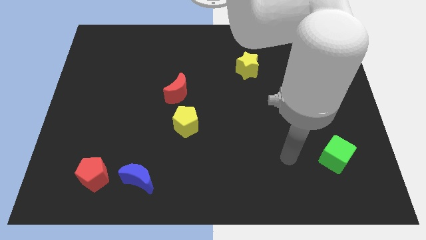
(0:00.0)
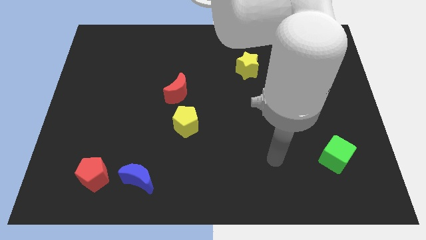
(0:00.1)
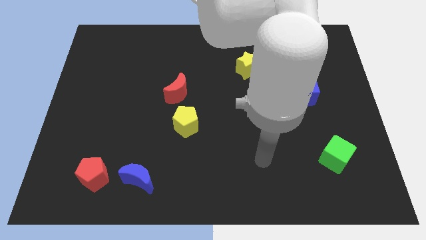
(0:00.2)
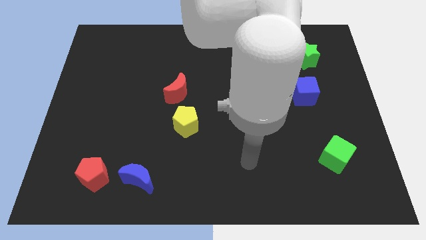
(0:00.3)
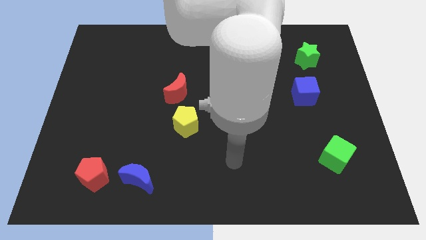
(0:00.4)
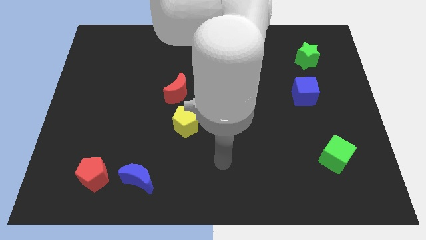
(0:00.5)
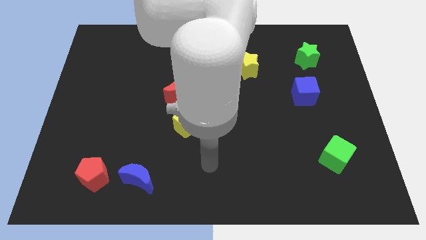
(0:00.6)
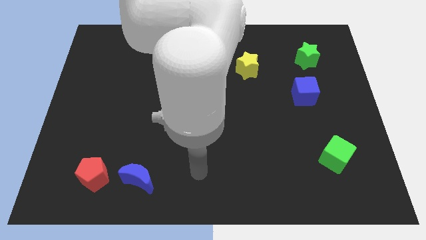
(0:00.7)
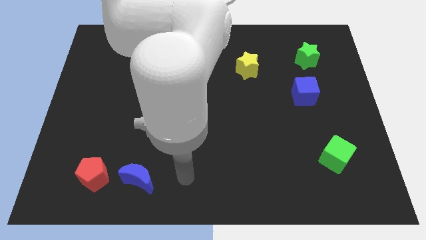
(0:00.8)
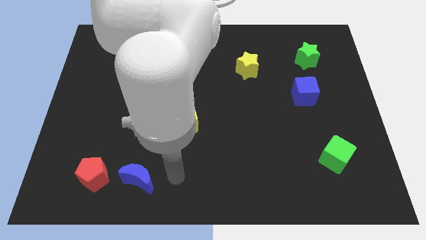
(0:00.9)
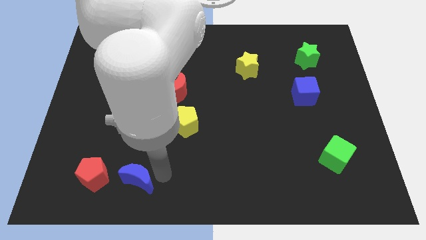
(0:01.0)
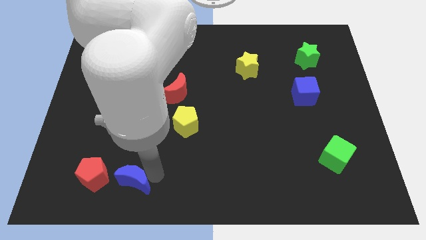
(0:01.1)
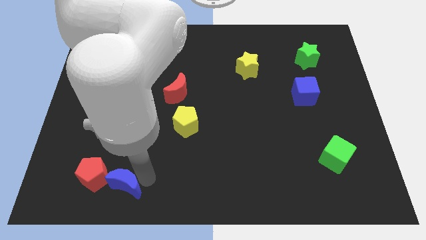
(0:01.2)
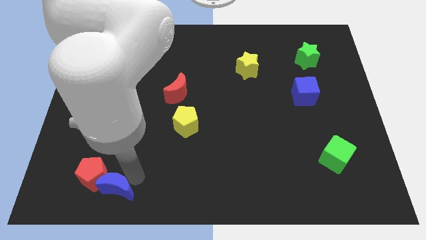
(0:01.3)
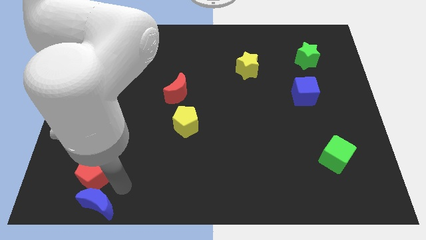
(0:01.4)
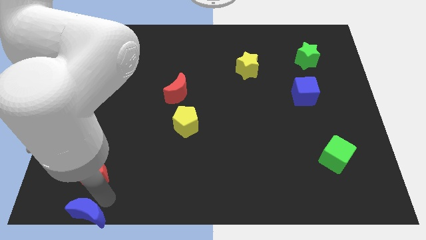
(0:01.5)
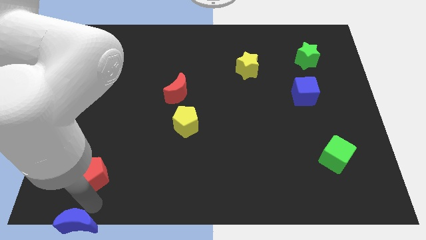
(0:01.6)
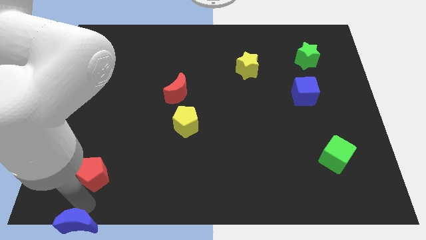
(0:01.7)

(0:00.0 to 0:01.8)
pull the red pentagon apart from the blue moon

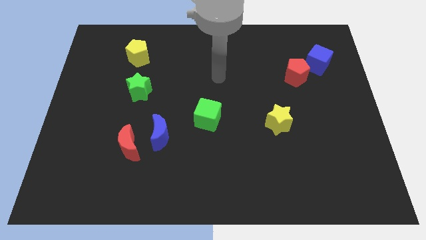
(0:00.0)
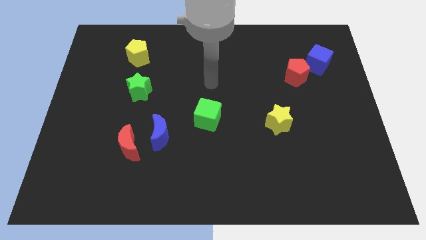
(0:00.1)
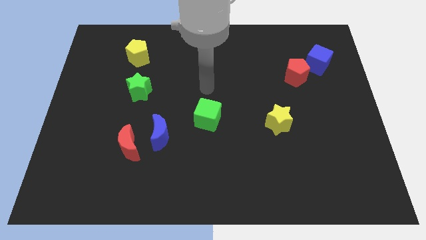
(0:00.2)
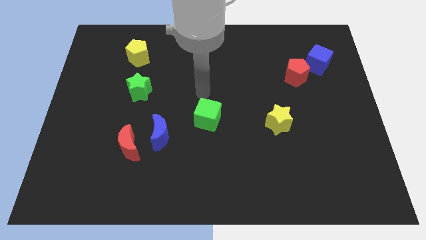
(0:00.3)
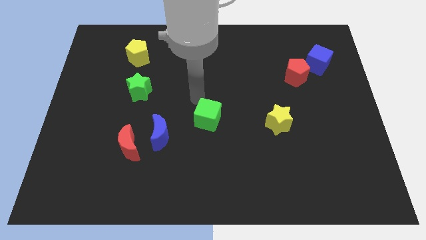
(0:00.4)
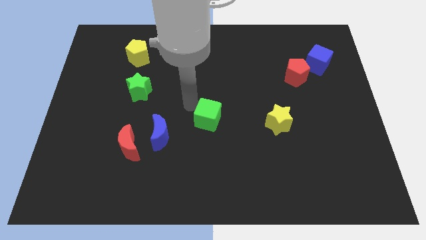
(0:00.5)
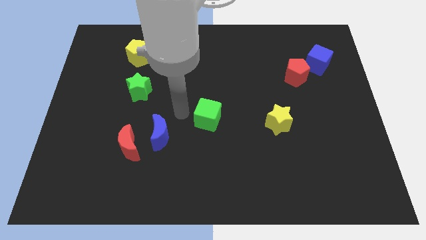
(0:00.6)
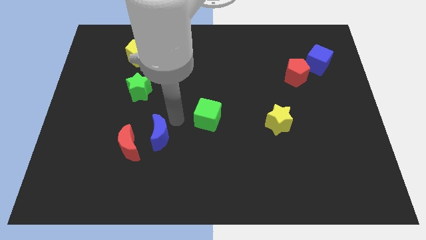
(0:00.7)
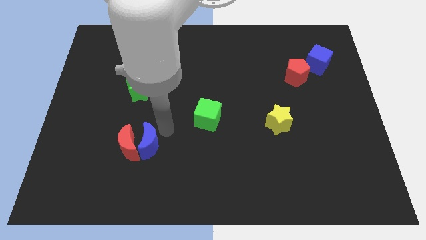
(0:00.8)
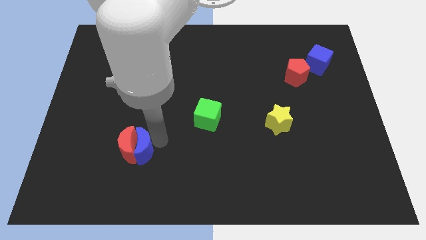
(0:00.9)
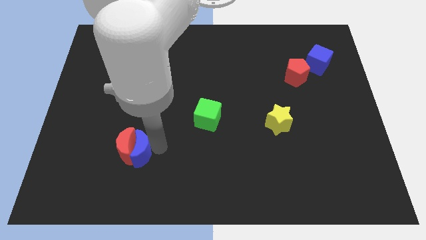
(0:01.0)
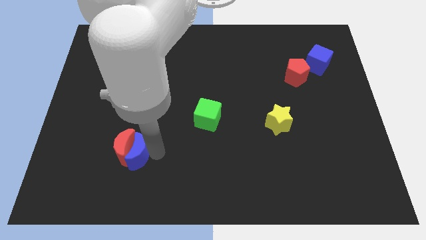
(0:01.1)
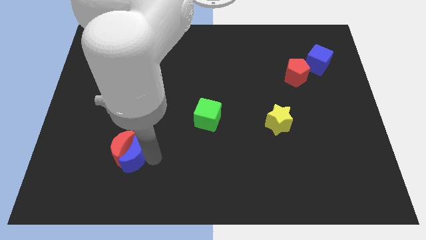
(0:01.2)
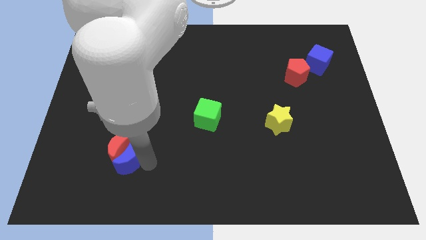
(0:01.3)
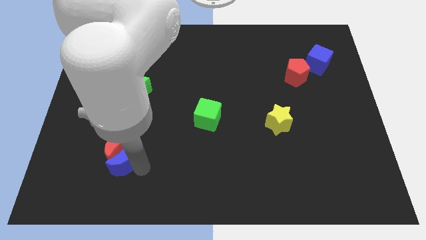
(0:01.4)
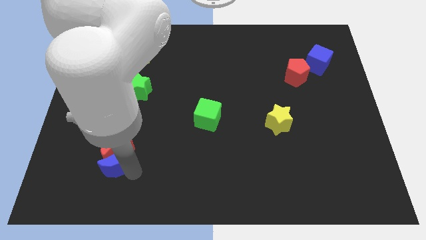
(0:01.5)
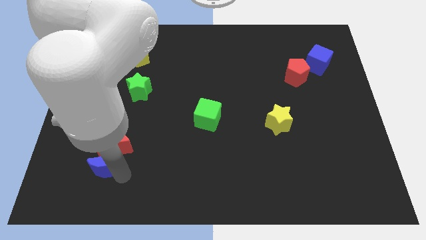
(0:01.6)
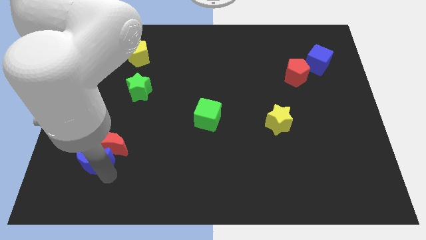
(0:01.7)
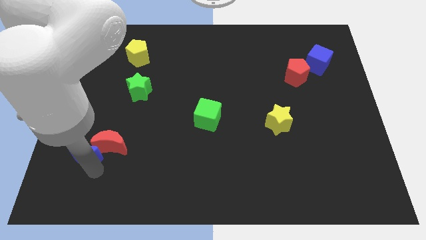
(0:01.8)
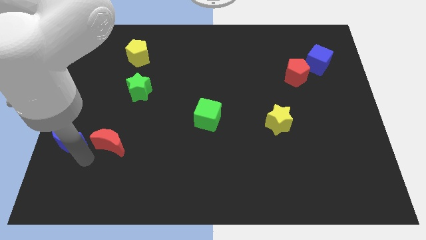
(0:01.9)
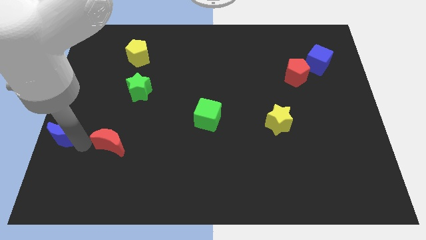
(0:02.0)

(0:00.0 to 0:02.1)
separate the red moon from the blue moon

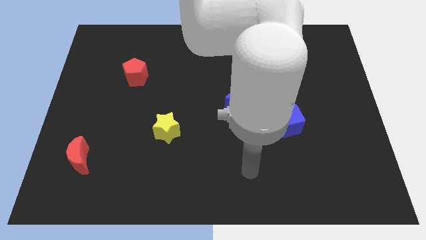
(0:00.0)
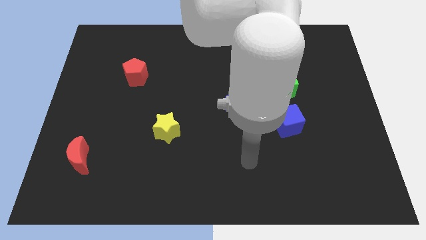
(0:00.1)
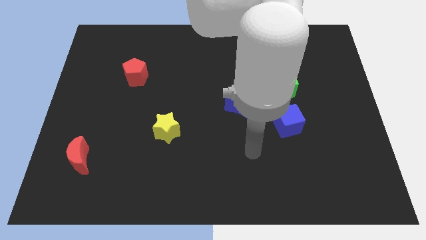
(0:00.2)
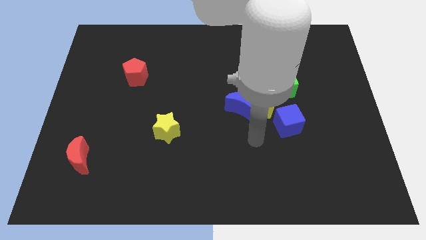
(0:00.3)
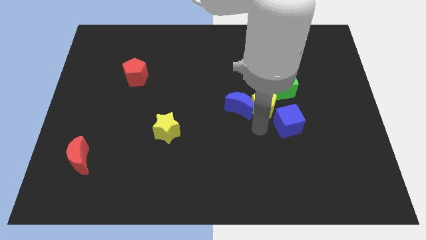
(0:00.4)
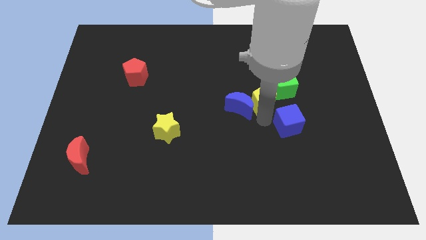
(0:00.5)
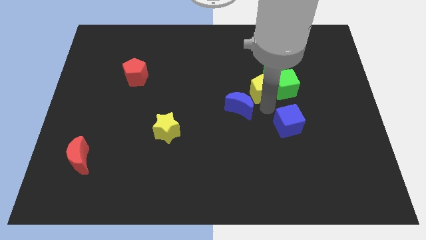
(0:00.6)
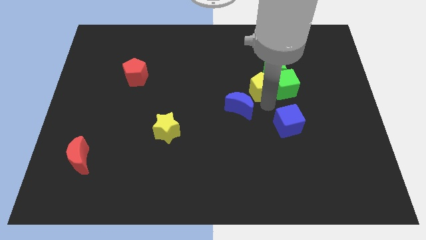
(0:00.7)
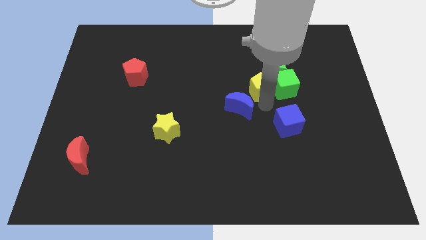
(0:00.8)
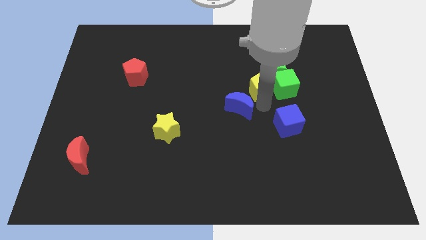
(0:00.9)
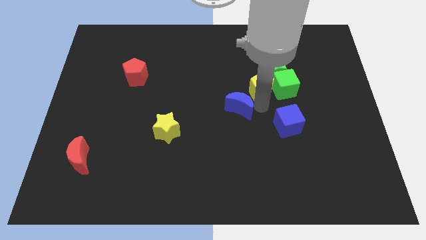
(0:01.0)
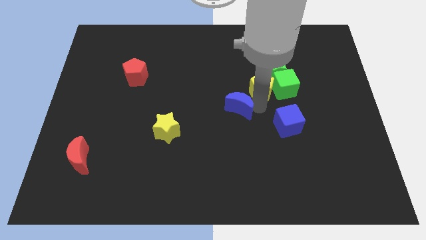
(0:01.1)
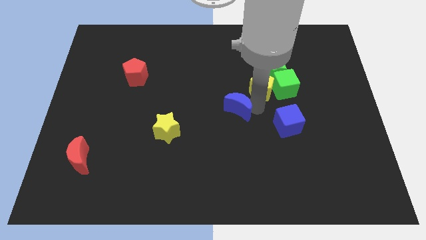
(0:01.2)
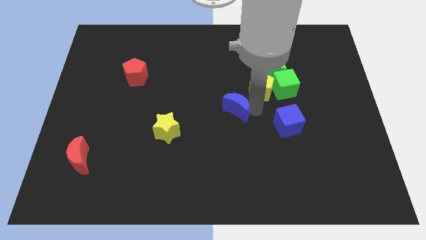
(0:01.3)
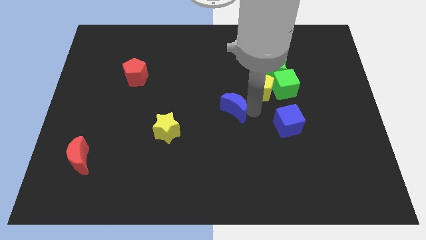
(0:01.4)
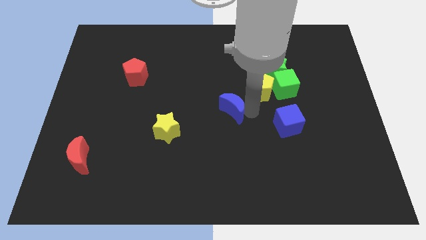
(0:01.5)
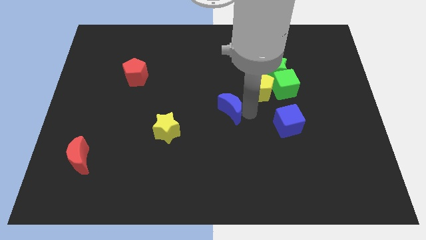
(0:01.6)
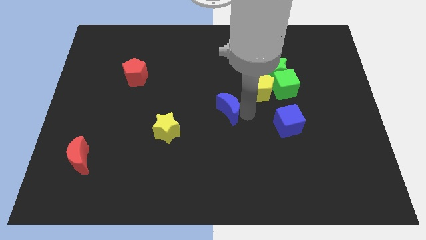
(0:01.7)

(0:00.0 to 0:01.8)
separate the blue moon from the yellow pentagon

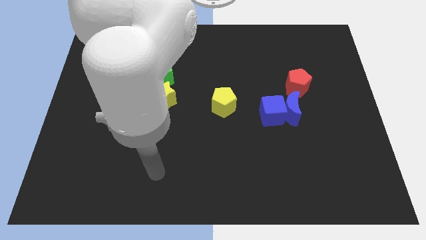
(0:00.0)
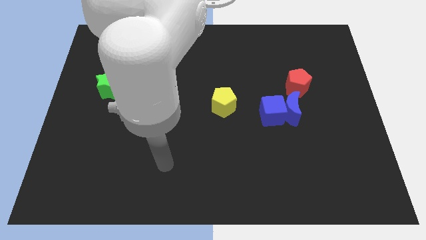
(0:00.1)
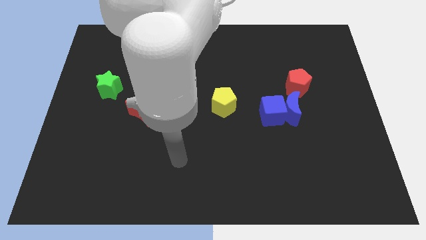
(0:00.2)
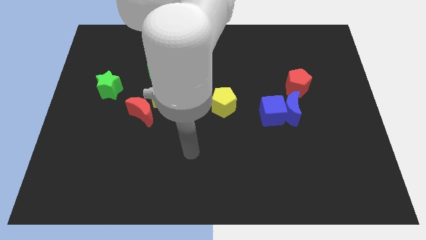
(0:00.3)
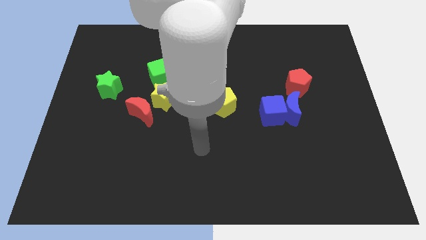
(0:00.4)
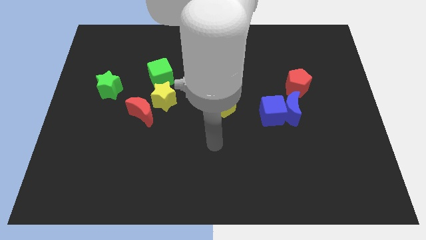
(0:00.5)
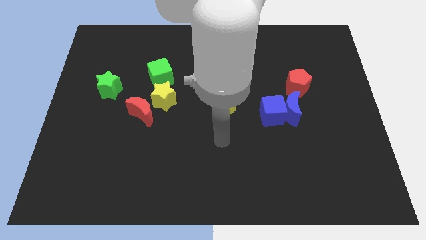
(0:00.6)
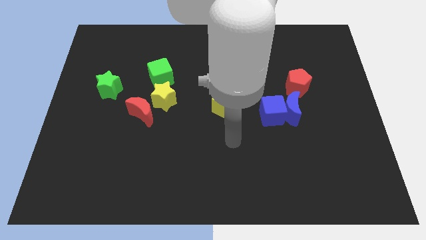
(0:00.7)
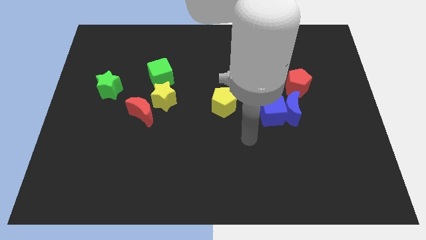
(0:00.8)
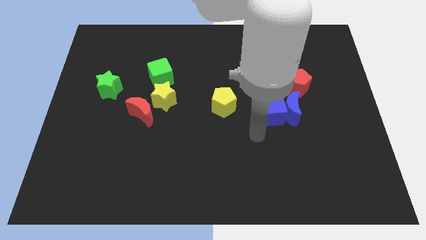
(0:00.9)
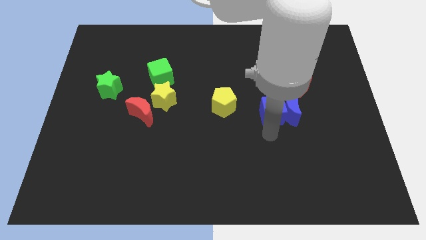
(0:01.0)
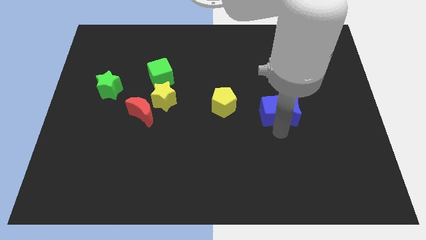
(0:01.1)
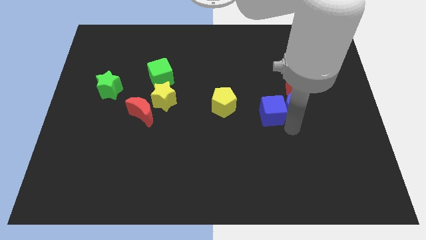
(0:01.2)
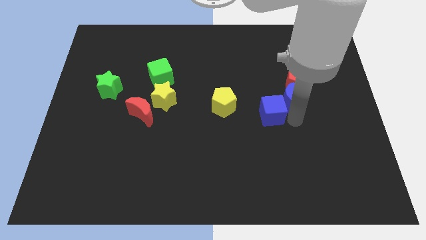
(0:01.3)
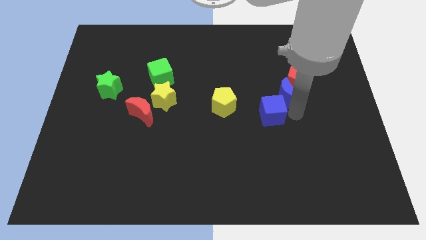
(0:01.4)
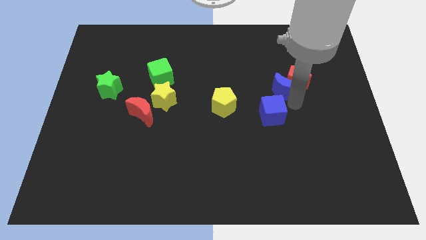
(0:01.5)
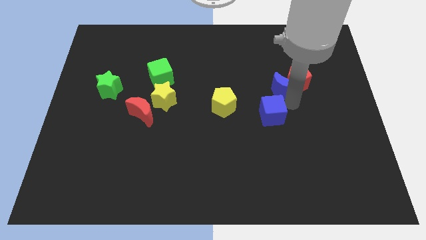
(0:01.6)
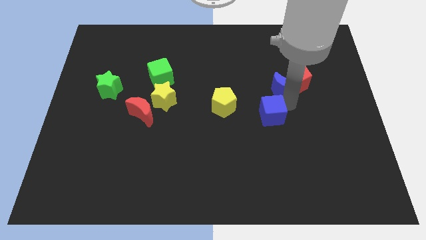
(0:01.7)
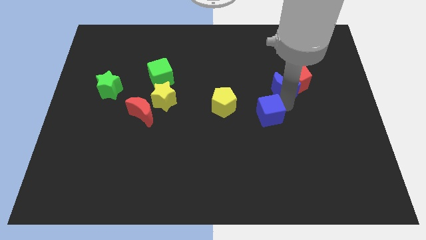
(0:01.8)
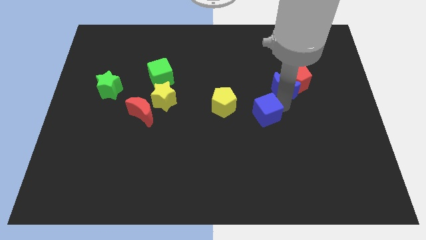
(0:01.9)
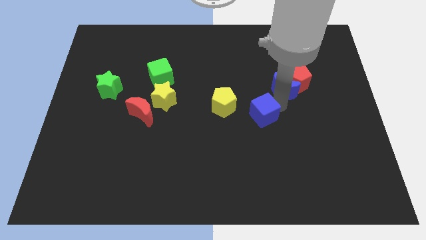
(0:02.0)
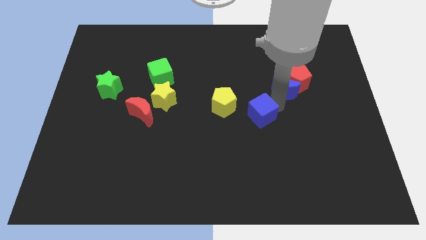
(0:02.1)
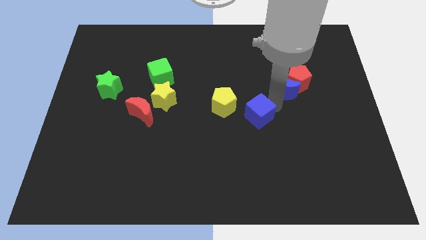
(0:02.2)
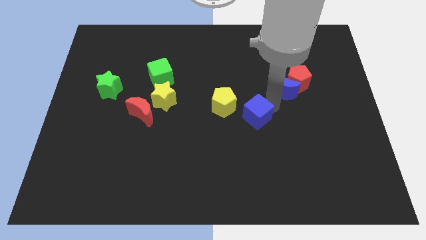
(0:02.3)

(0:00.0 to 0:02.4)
move the blue cube away from the blue moon

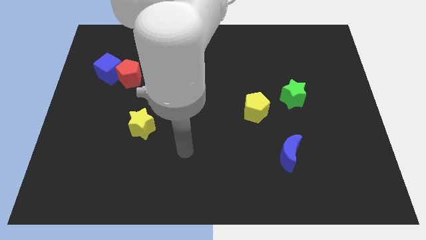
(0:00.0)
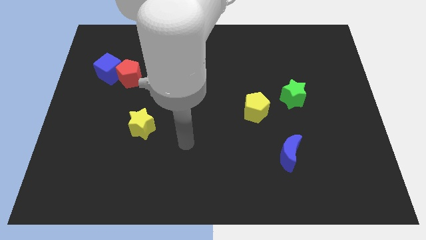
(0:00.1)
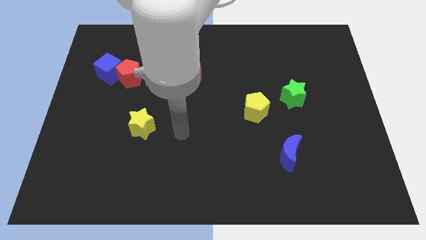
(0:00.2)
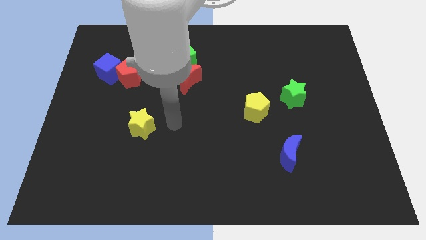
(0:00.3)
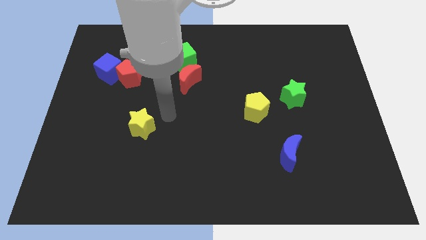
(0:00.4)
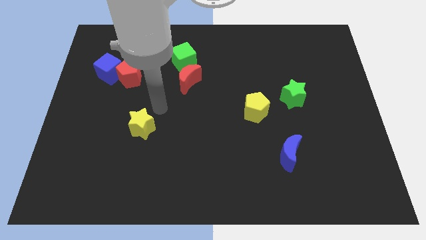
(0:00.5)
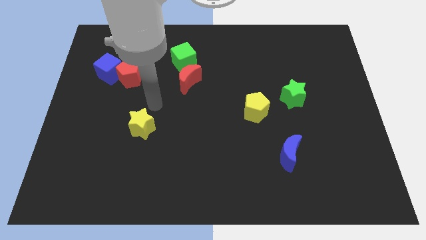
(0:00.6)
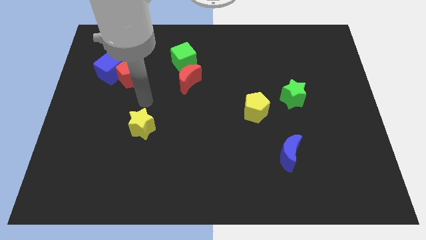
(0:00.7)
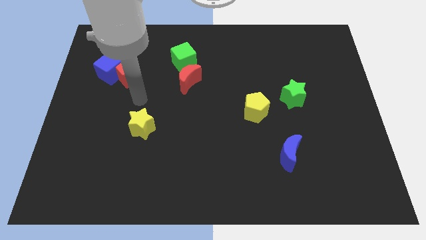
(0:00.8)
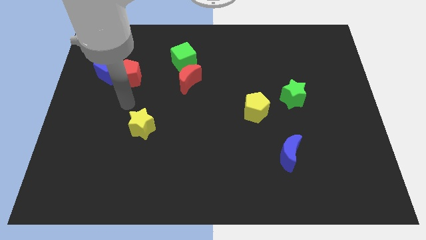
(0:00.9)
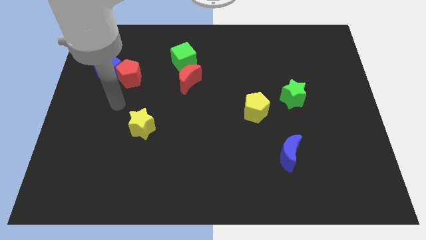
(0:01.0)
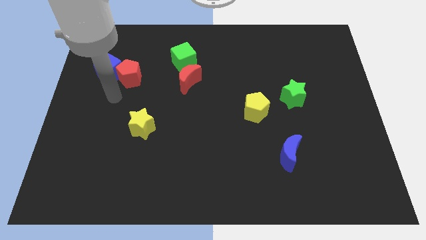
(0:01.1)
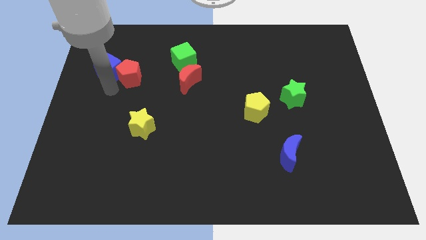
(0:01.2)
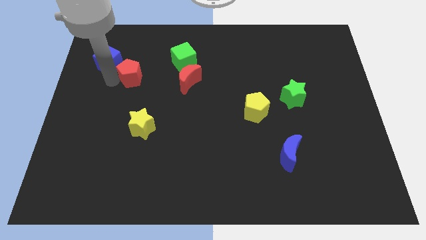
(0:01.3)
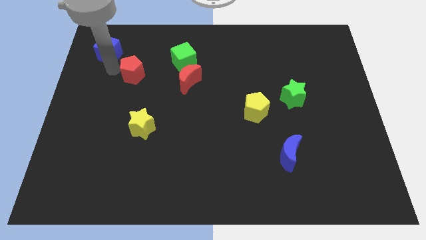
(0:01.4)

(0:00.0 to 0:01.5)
pull the red pentagon apart from the blue cube
